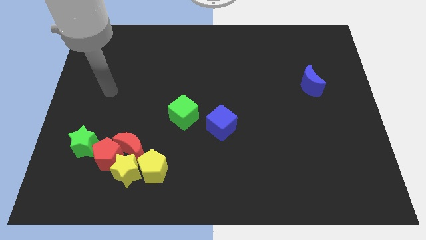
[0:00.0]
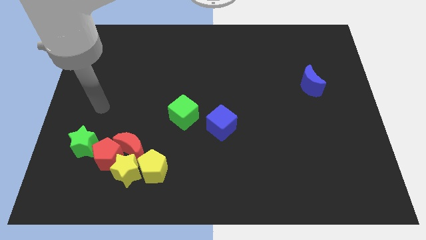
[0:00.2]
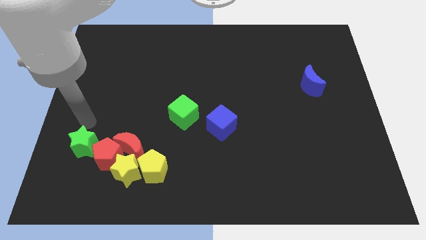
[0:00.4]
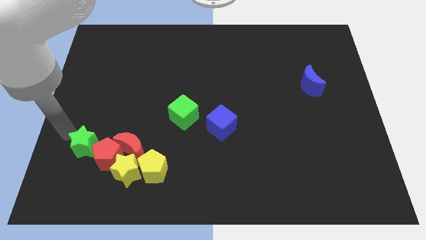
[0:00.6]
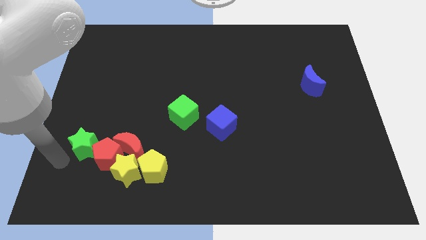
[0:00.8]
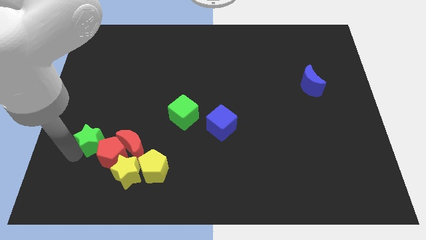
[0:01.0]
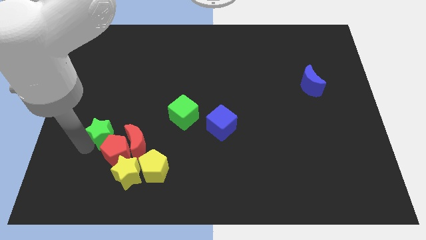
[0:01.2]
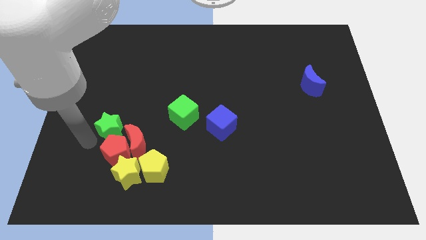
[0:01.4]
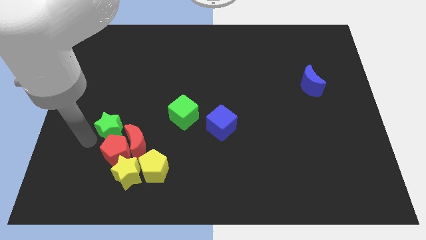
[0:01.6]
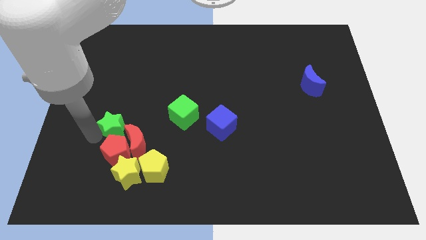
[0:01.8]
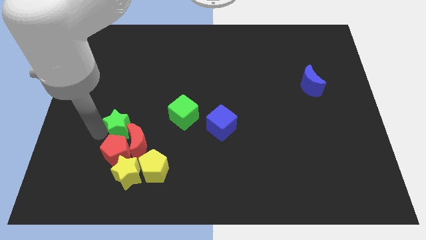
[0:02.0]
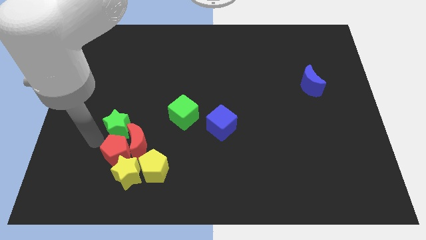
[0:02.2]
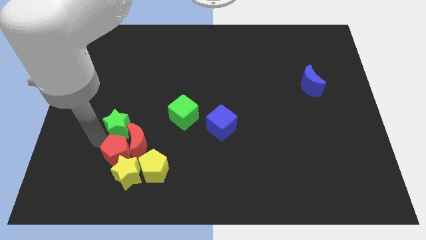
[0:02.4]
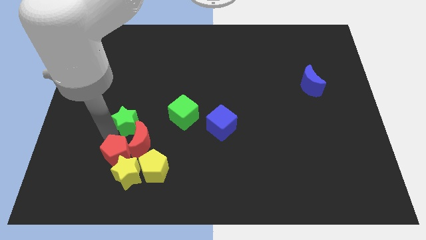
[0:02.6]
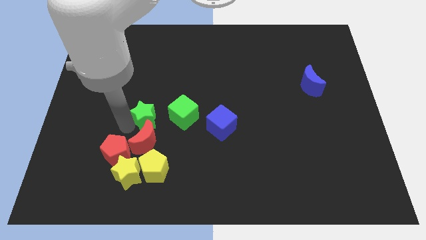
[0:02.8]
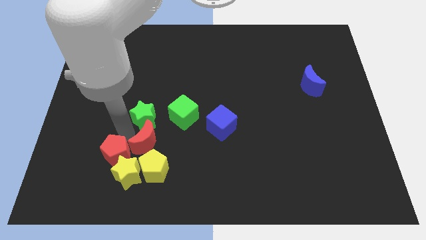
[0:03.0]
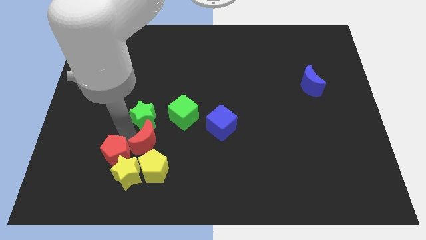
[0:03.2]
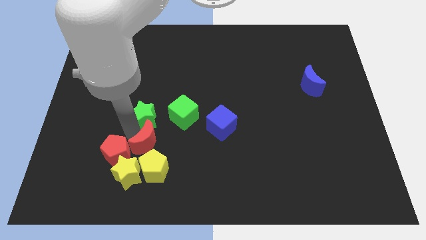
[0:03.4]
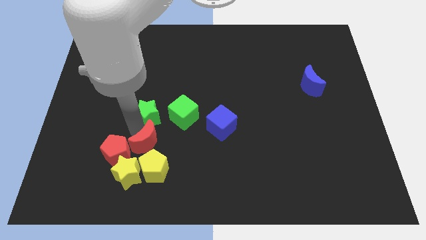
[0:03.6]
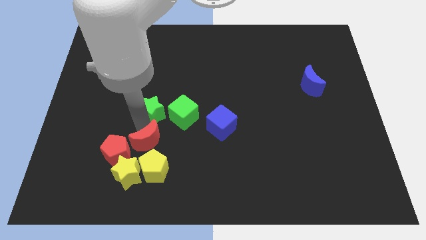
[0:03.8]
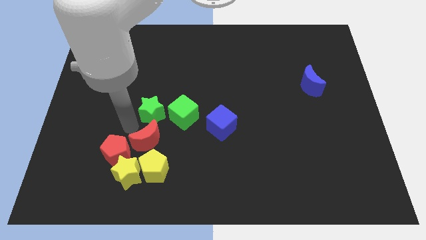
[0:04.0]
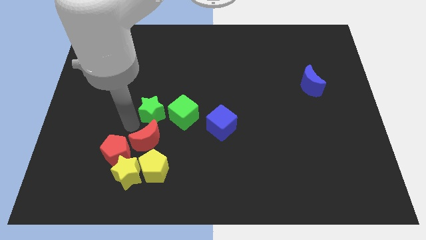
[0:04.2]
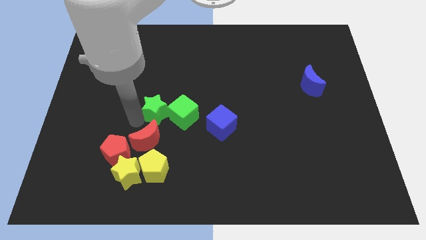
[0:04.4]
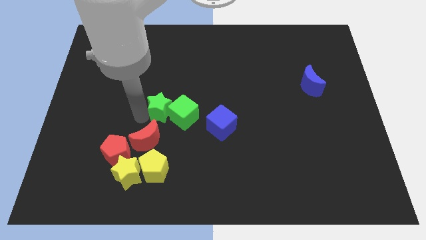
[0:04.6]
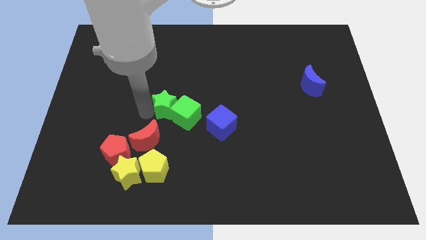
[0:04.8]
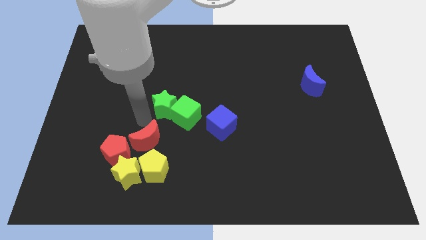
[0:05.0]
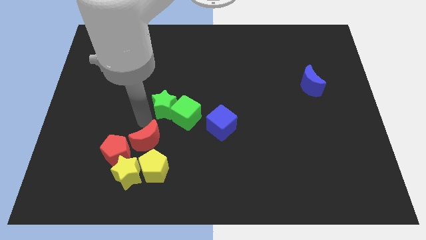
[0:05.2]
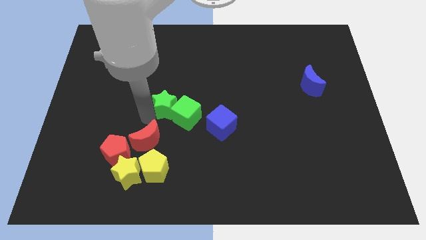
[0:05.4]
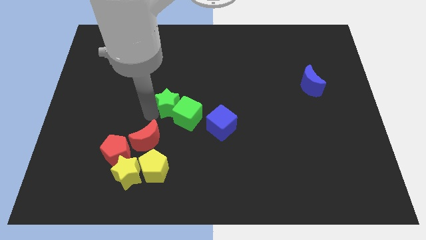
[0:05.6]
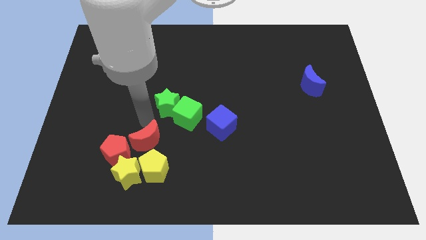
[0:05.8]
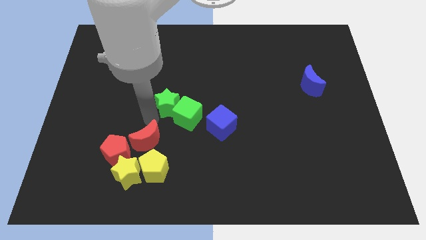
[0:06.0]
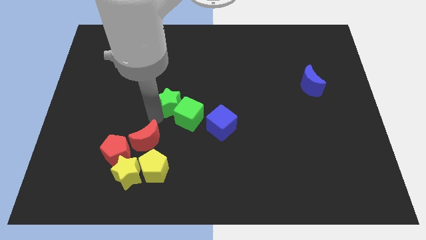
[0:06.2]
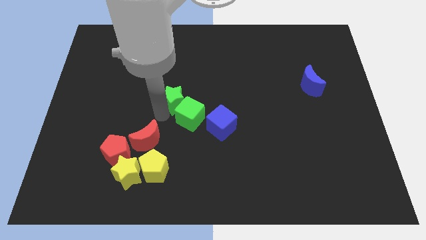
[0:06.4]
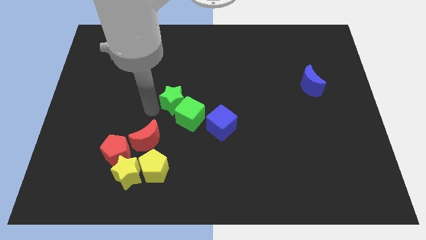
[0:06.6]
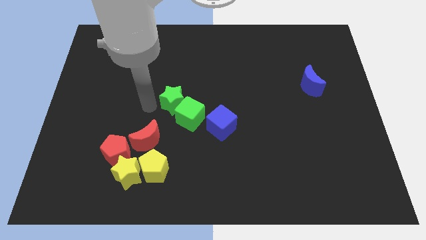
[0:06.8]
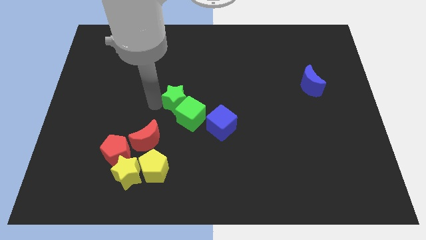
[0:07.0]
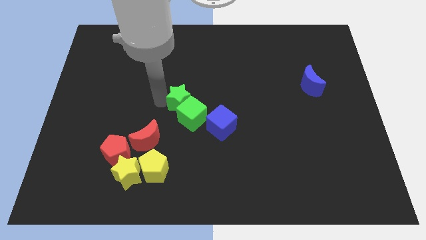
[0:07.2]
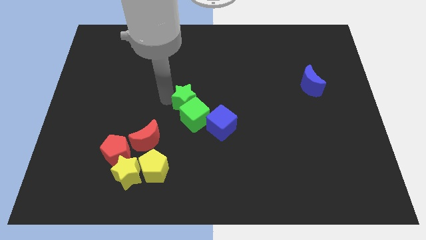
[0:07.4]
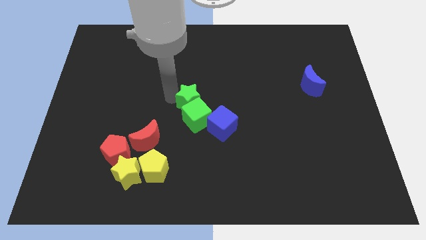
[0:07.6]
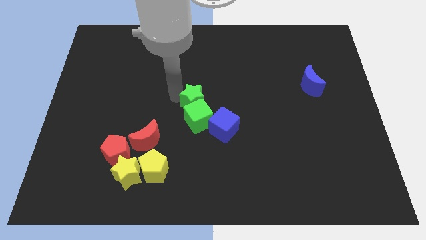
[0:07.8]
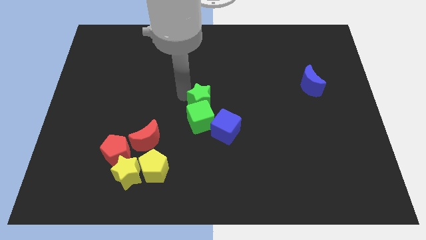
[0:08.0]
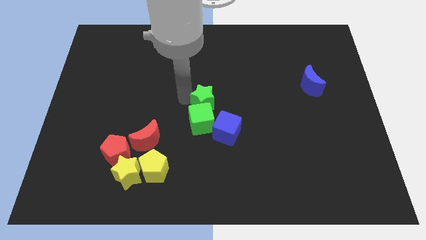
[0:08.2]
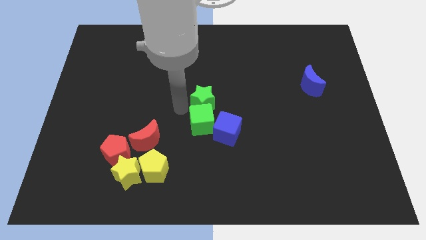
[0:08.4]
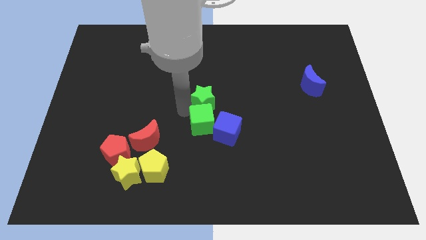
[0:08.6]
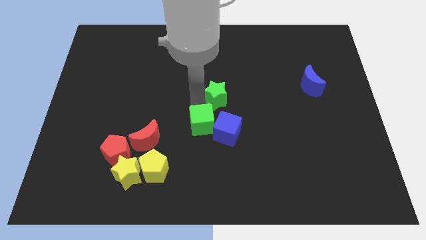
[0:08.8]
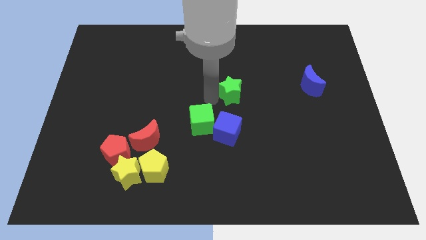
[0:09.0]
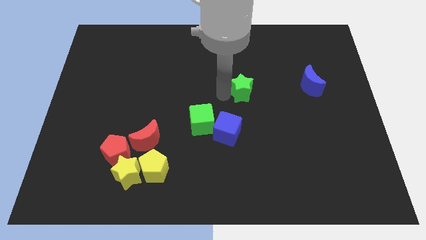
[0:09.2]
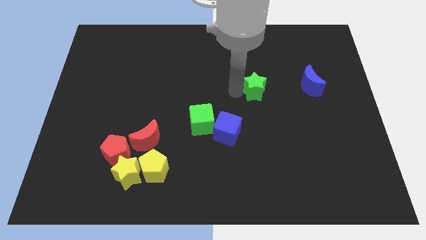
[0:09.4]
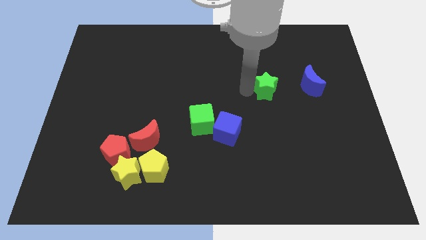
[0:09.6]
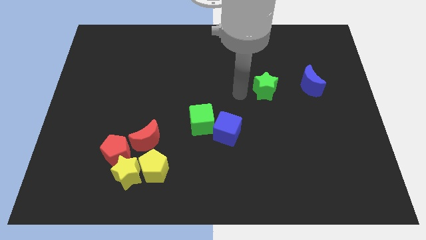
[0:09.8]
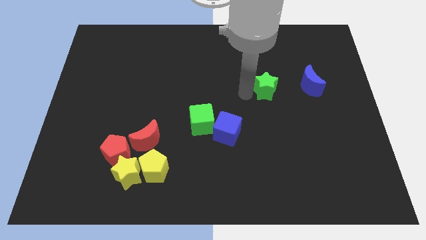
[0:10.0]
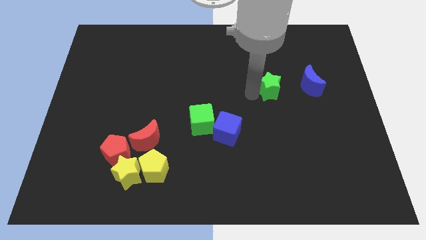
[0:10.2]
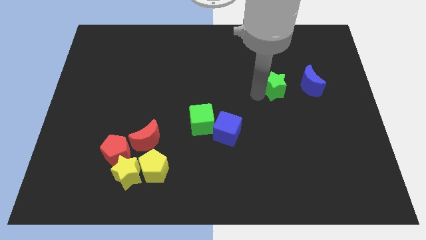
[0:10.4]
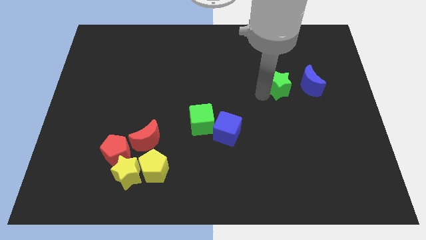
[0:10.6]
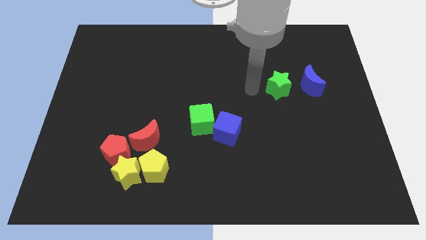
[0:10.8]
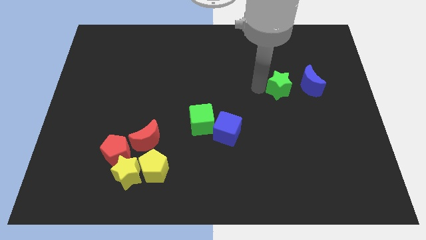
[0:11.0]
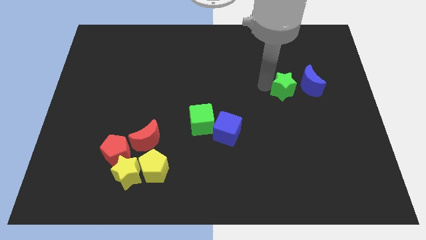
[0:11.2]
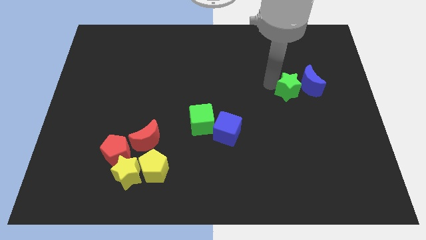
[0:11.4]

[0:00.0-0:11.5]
move the green star to the blue moon
